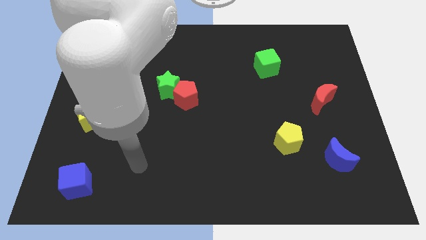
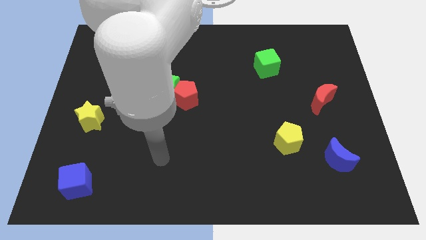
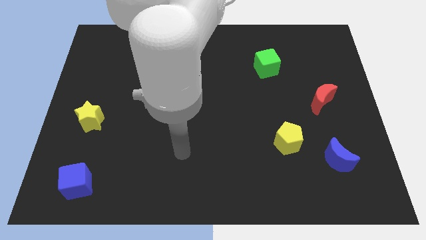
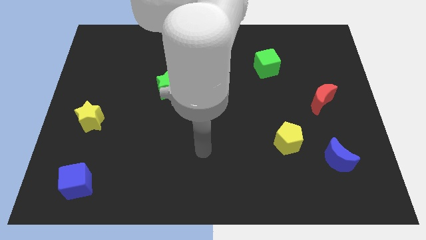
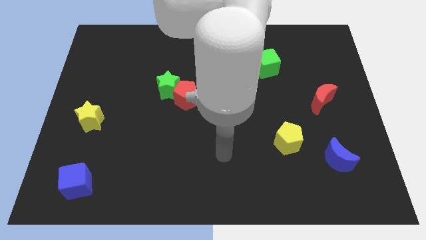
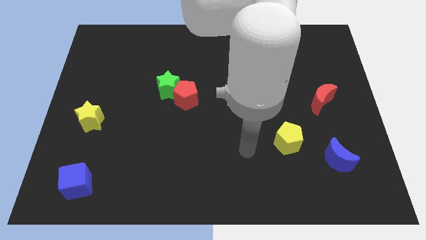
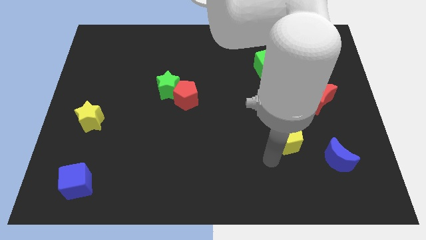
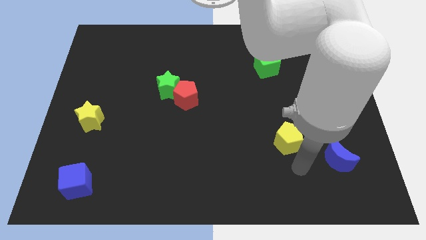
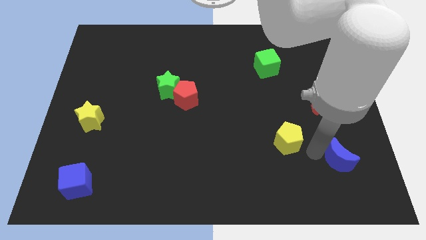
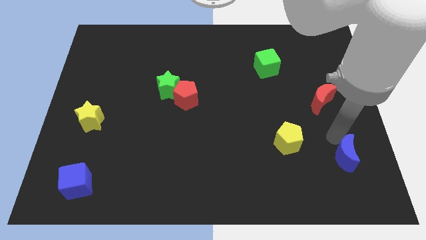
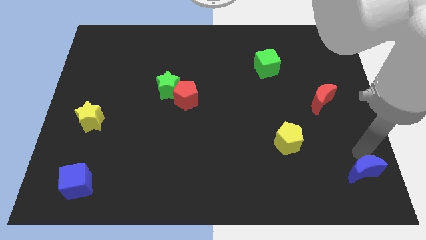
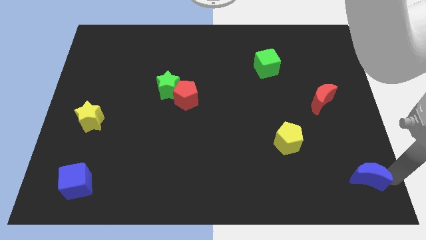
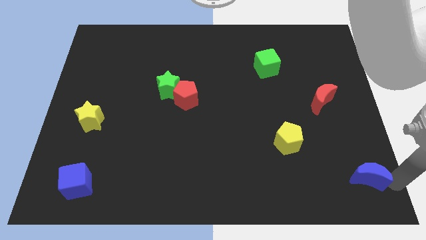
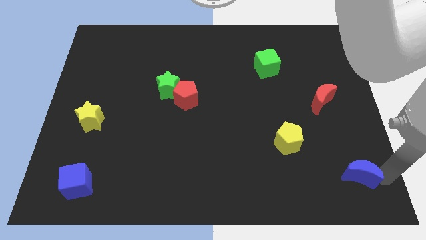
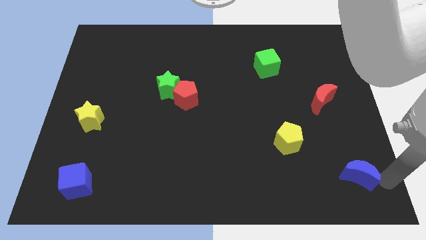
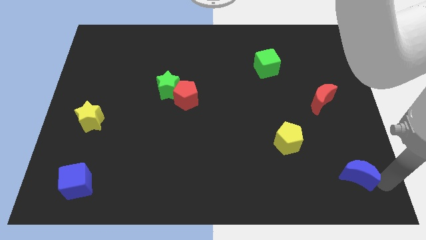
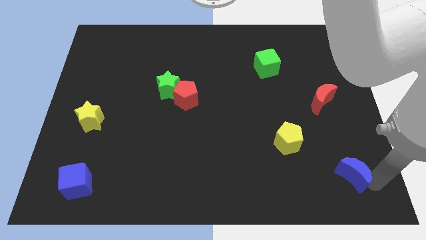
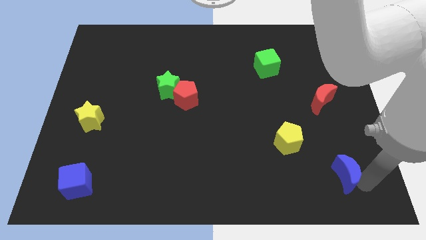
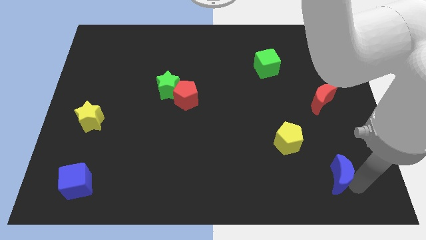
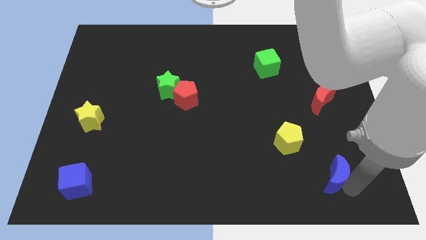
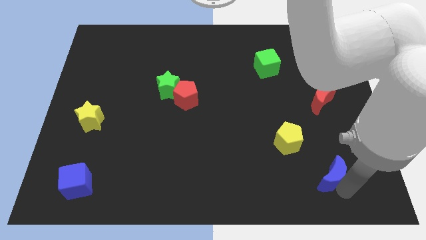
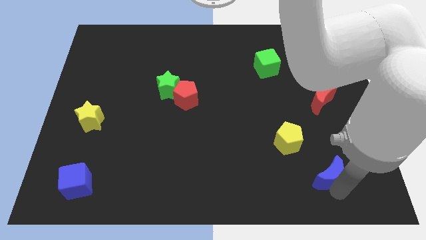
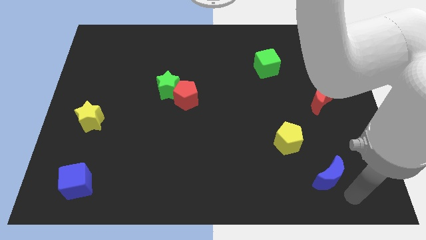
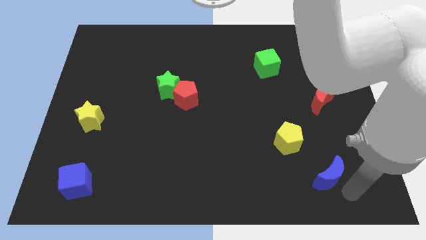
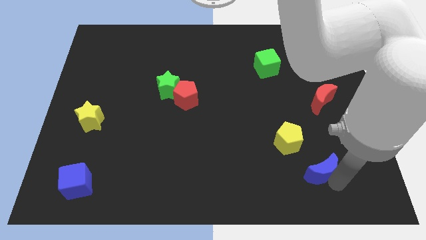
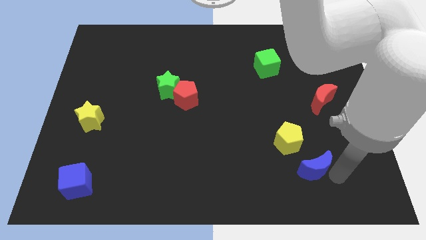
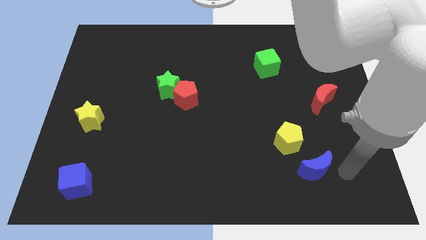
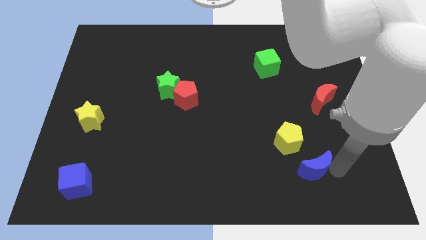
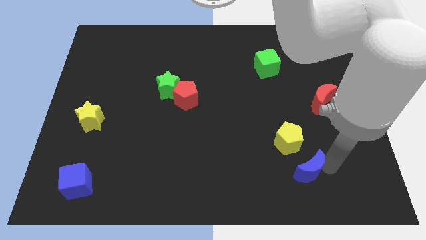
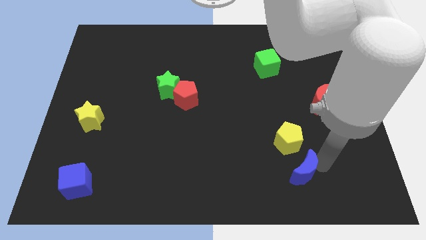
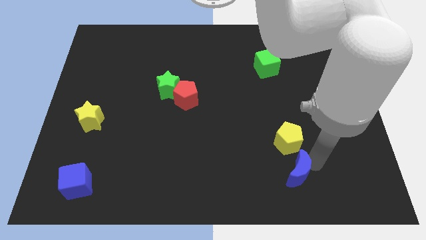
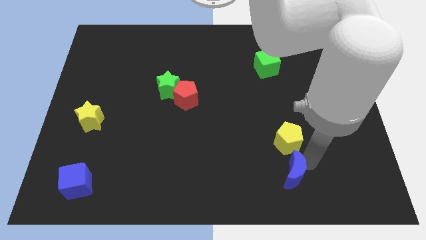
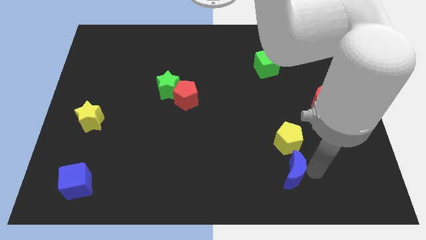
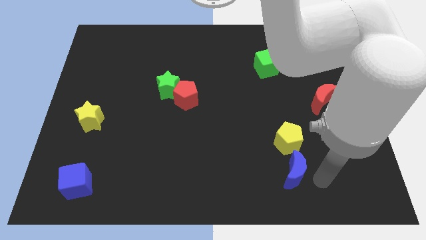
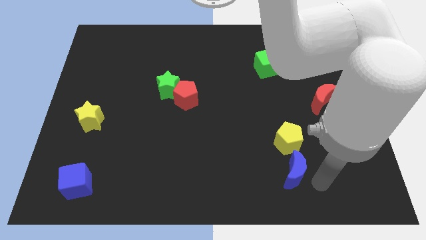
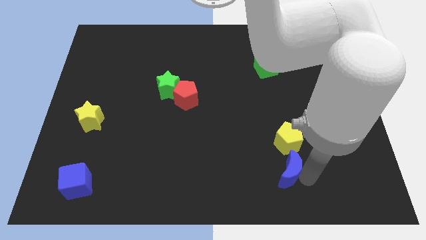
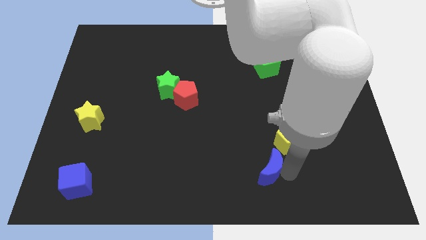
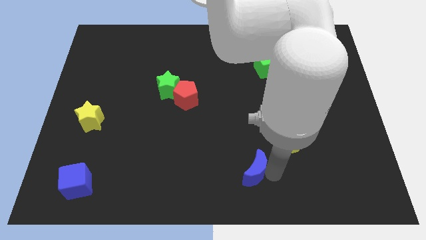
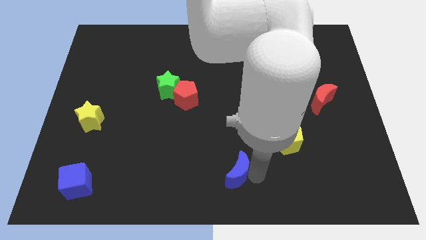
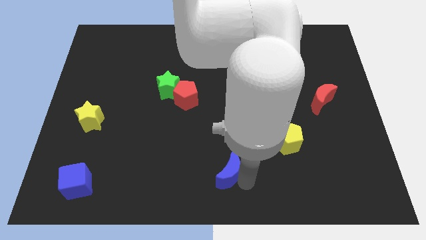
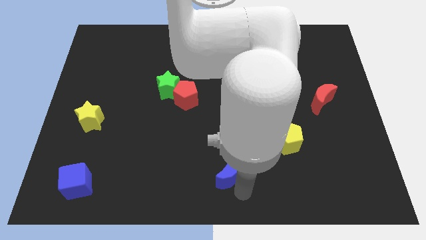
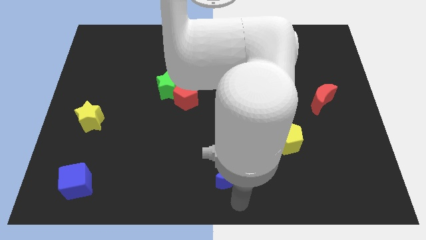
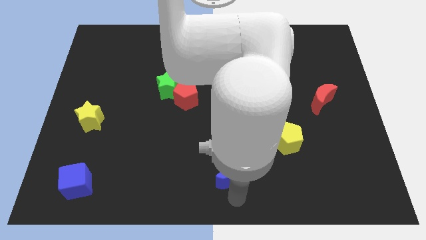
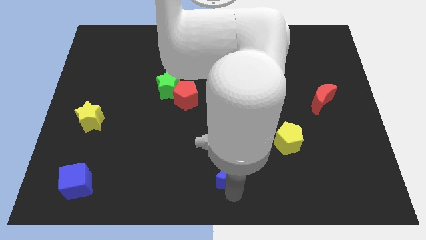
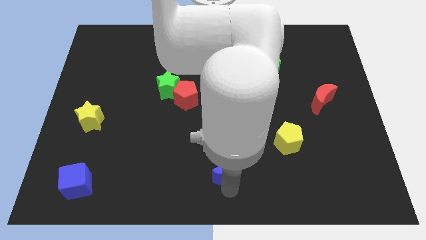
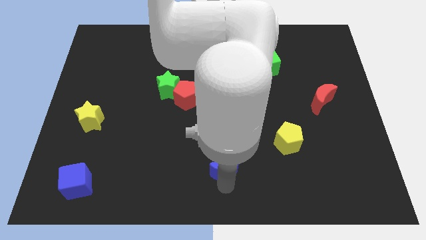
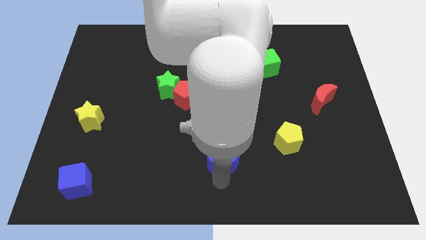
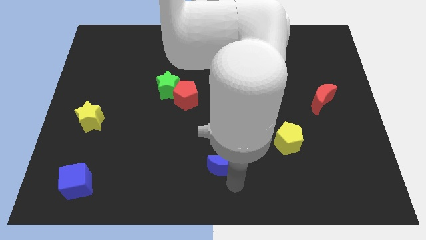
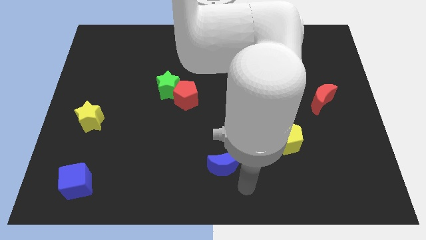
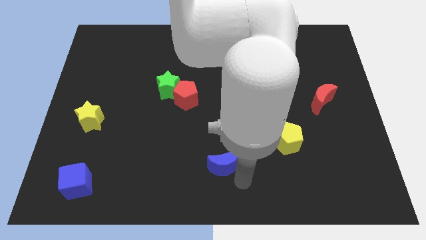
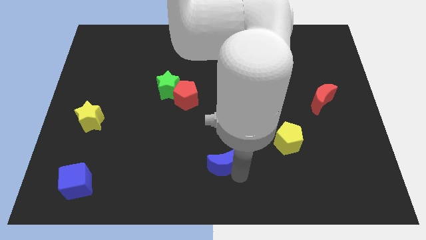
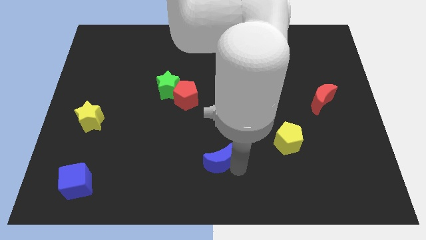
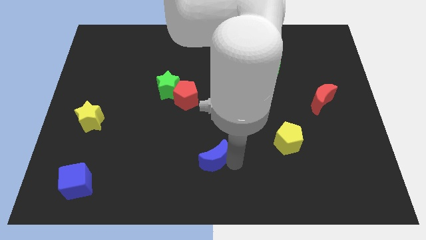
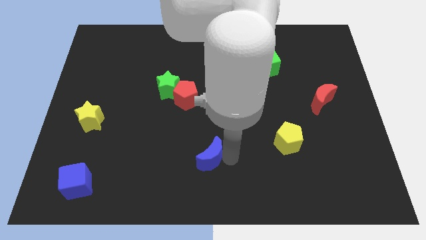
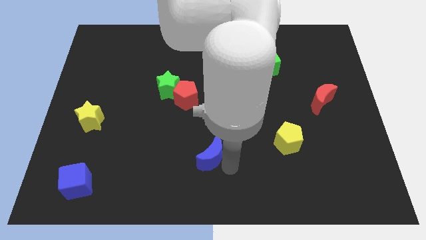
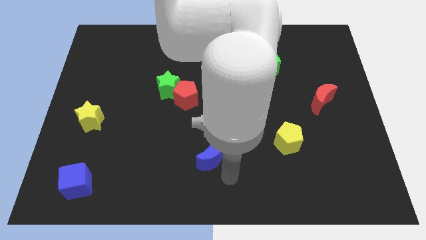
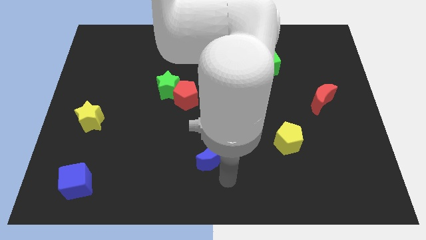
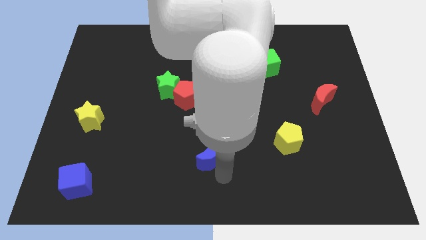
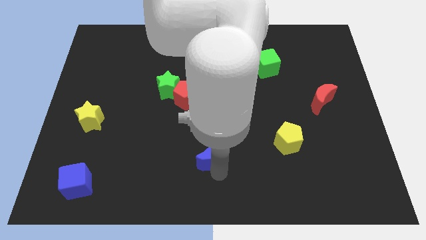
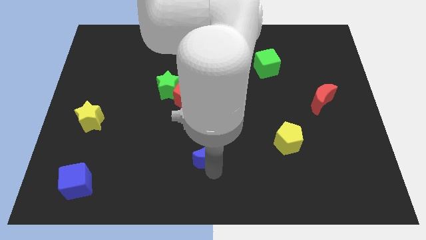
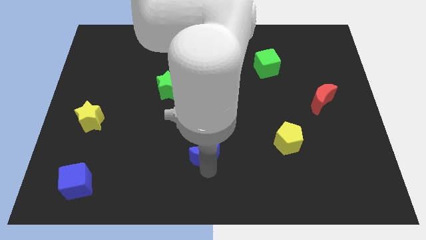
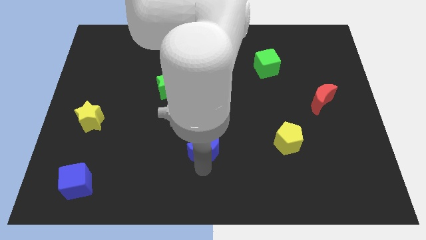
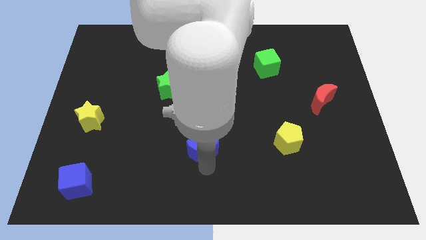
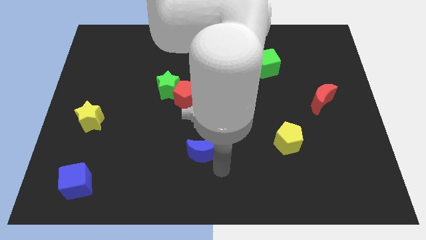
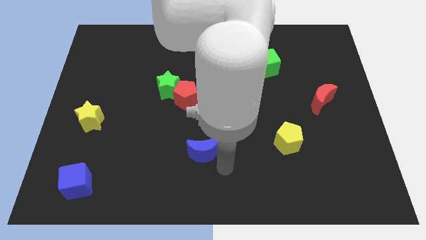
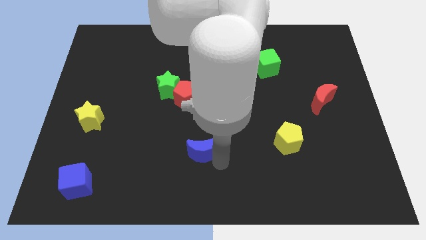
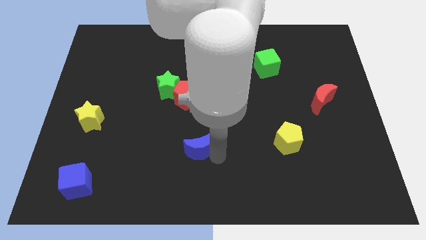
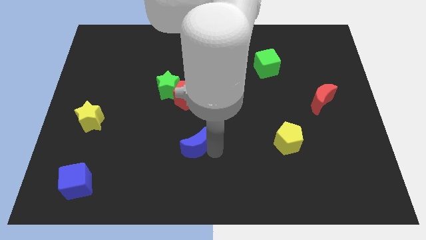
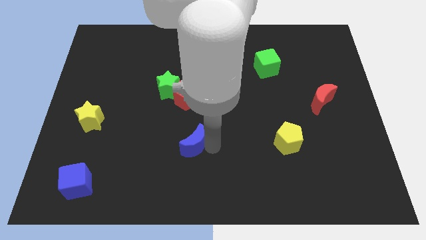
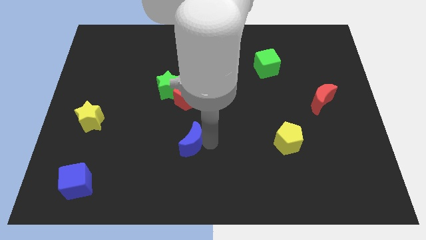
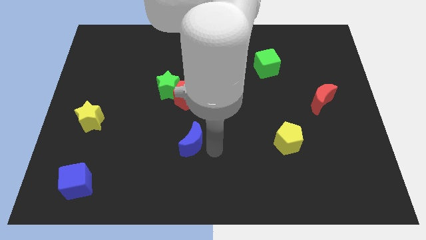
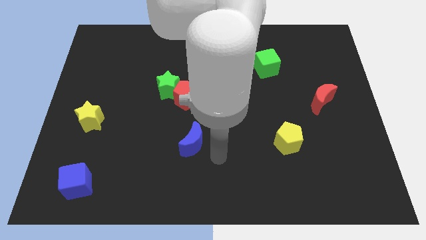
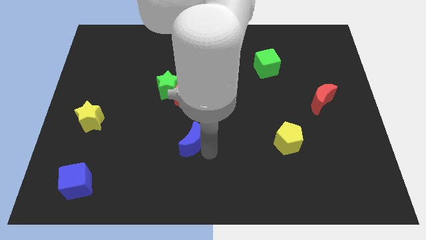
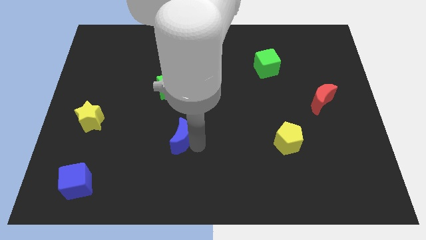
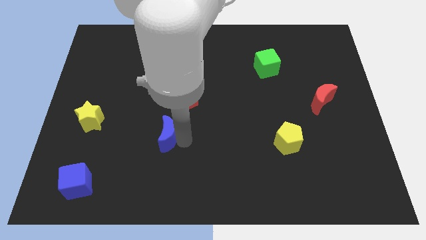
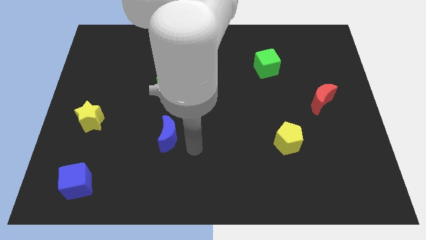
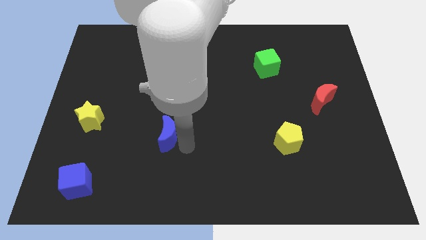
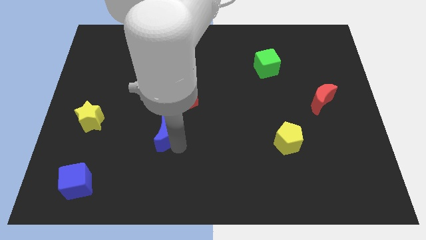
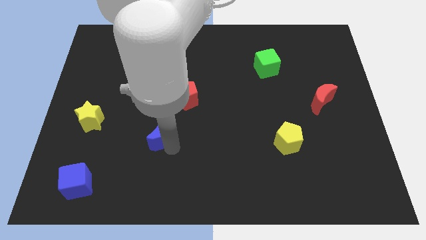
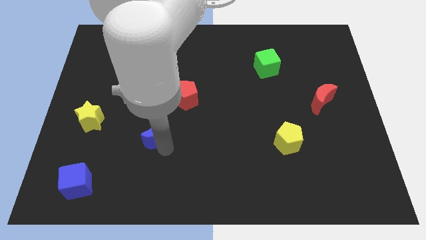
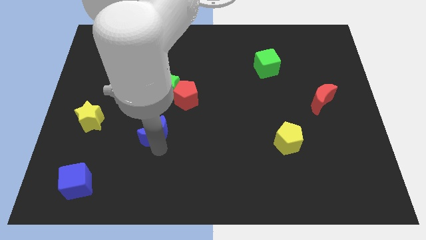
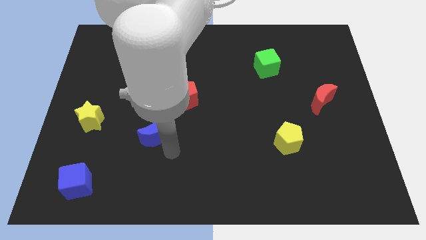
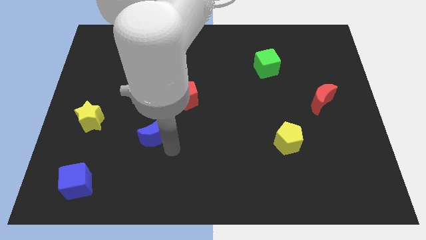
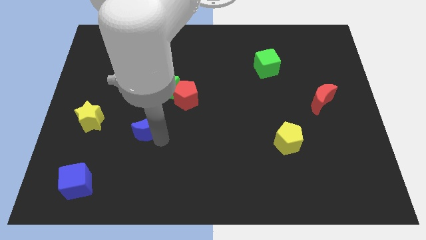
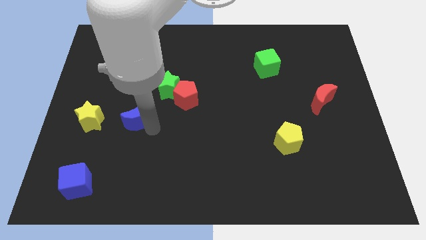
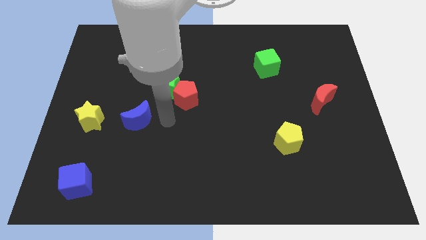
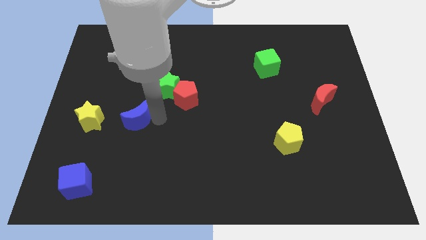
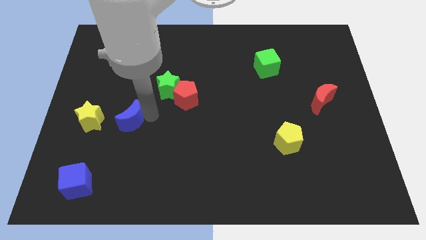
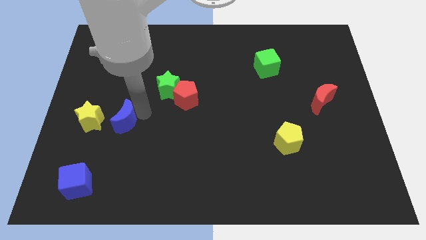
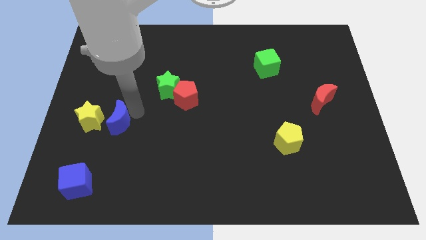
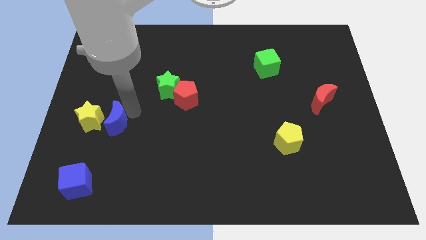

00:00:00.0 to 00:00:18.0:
slide the blue moon close to the yellow star
